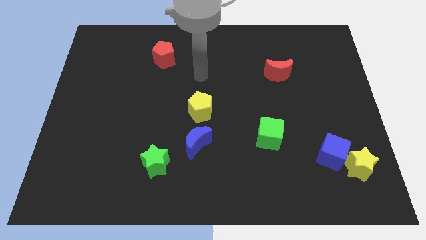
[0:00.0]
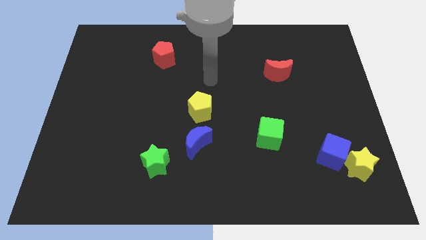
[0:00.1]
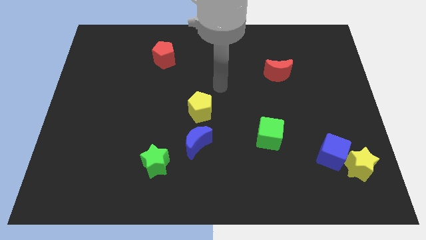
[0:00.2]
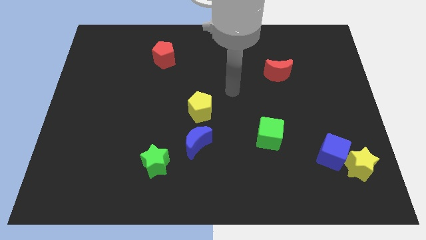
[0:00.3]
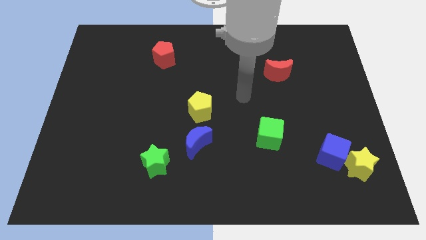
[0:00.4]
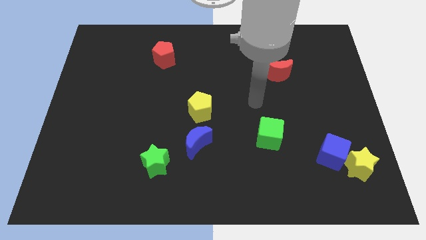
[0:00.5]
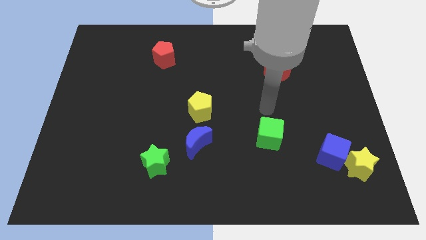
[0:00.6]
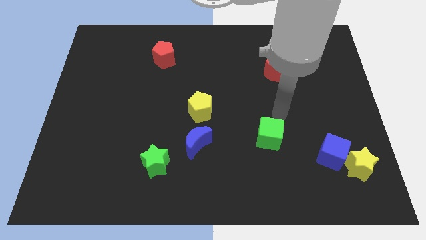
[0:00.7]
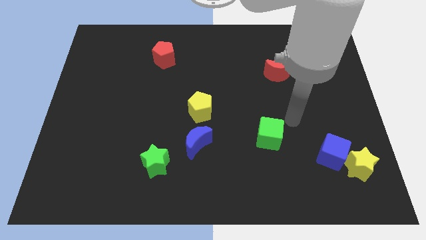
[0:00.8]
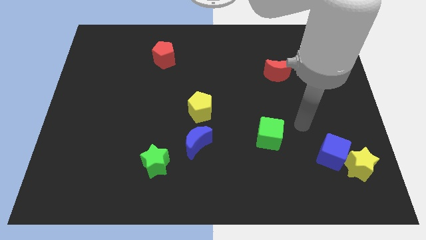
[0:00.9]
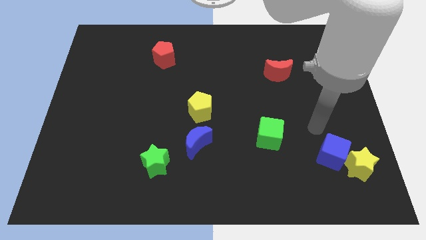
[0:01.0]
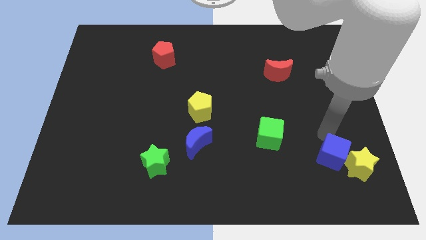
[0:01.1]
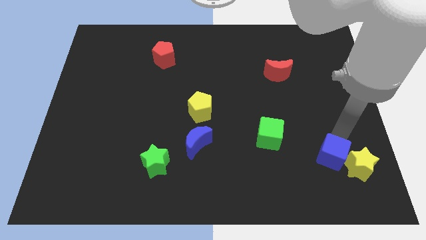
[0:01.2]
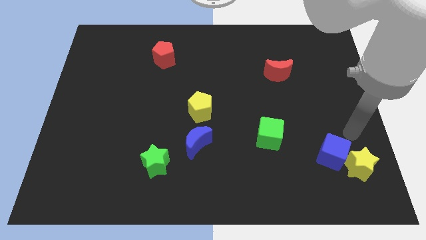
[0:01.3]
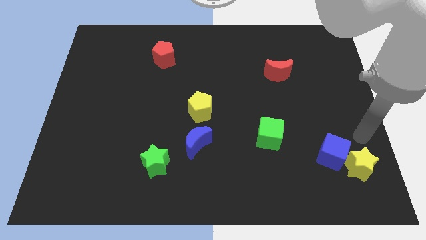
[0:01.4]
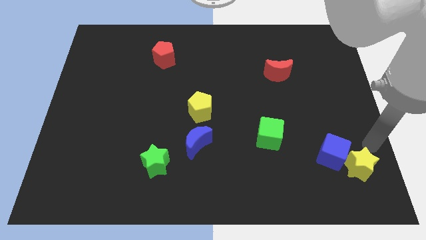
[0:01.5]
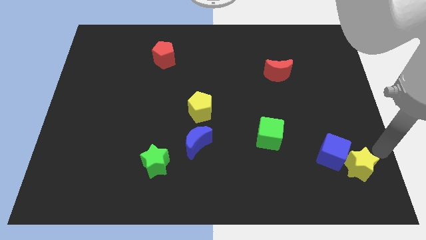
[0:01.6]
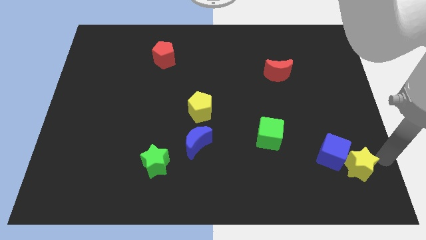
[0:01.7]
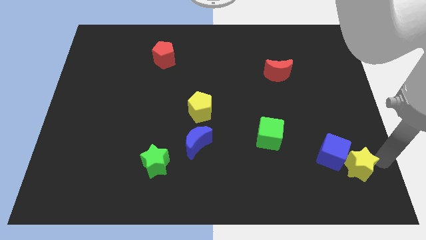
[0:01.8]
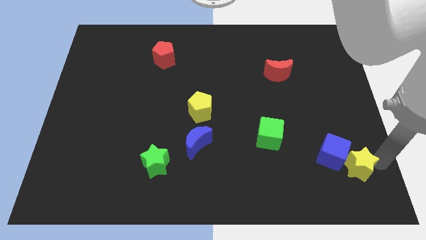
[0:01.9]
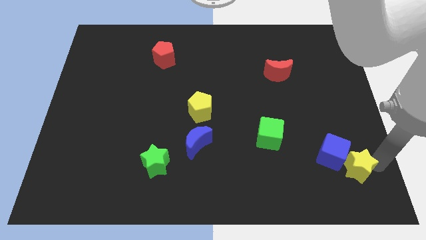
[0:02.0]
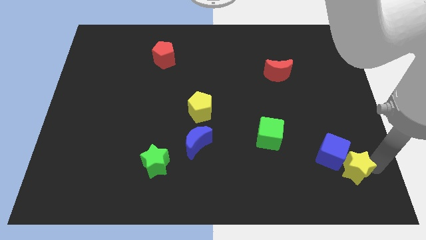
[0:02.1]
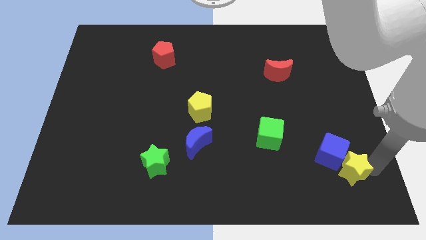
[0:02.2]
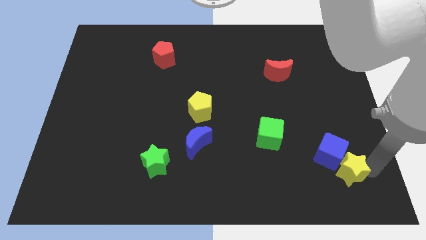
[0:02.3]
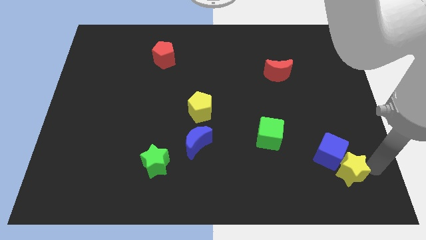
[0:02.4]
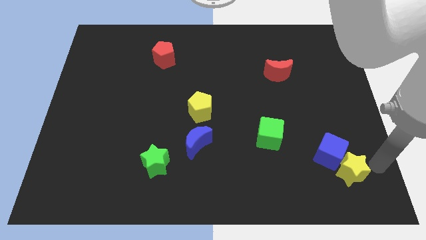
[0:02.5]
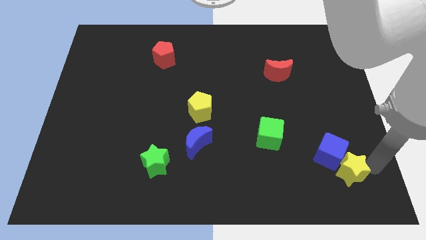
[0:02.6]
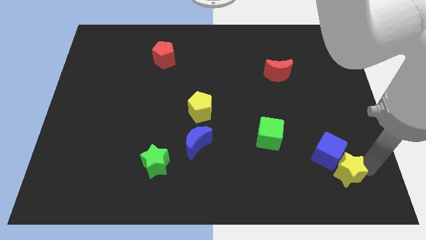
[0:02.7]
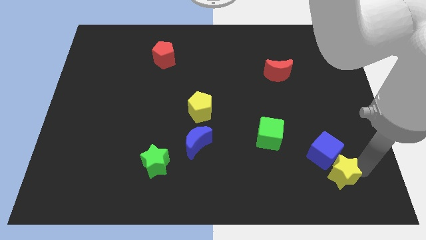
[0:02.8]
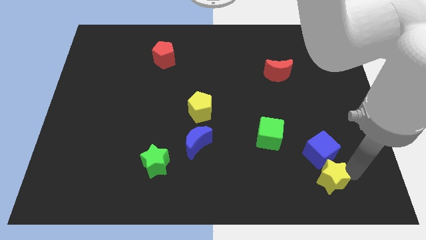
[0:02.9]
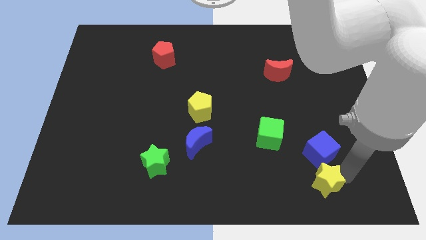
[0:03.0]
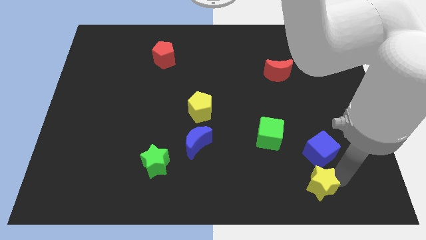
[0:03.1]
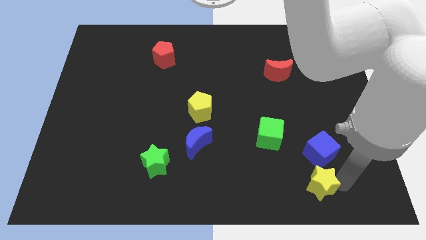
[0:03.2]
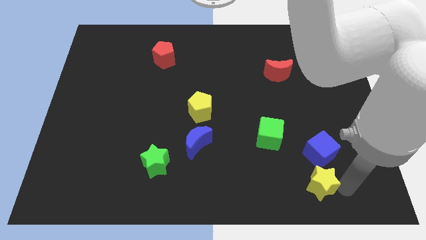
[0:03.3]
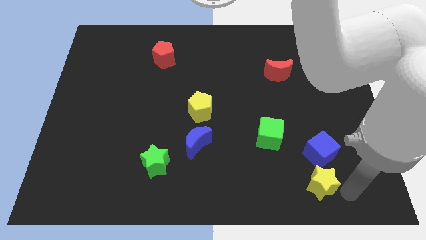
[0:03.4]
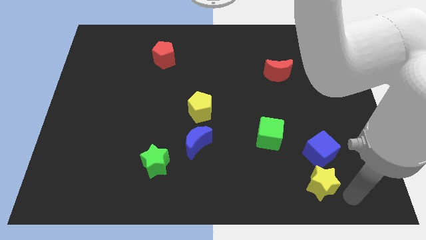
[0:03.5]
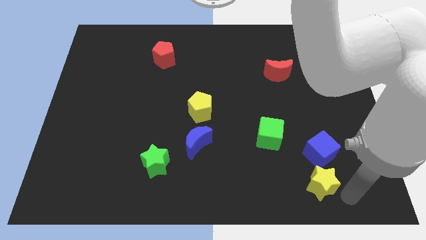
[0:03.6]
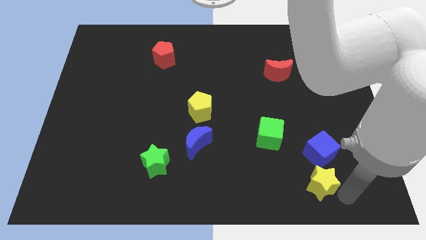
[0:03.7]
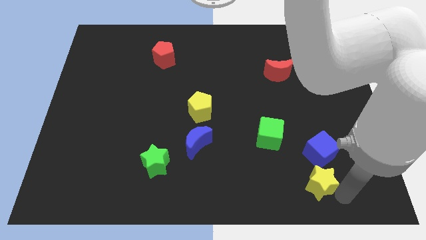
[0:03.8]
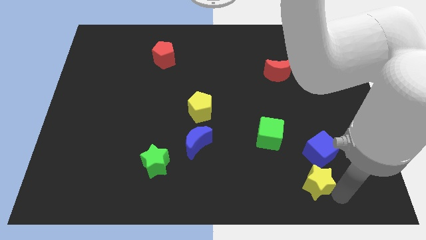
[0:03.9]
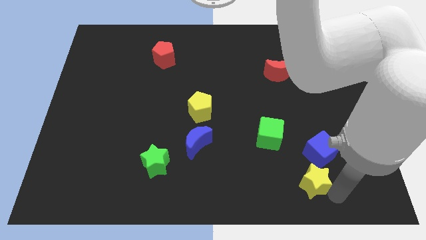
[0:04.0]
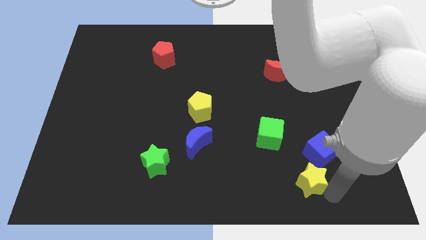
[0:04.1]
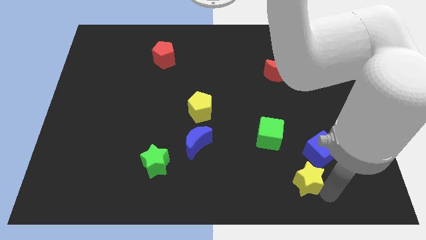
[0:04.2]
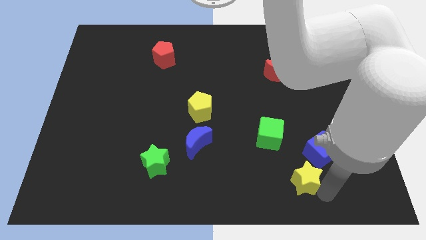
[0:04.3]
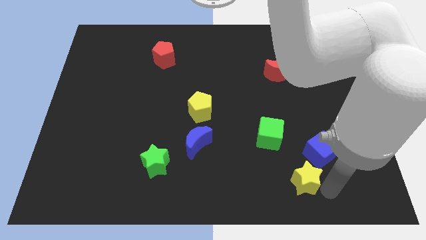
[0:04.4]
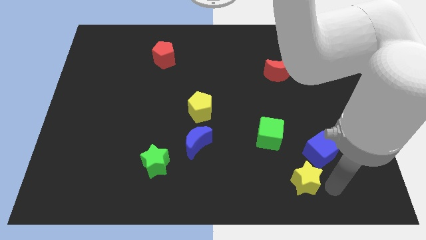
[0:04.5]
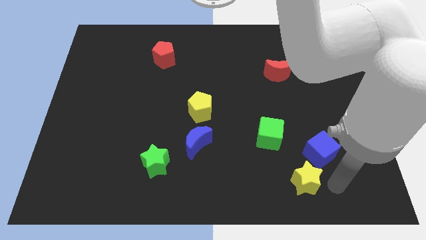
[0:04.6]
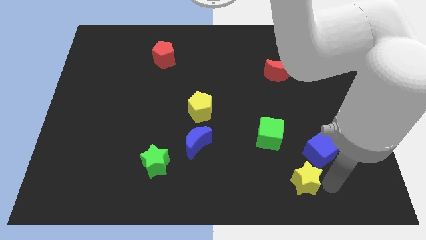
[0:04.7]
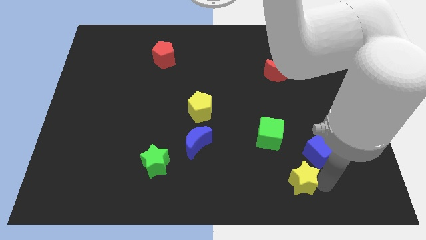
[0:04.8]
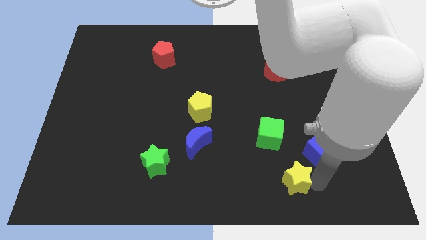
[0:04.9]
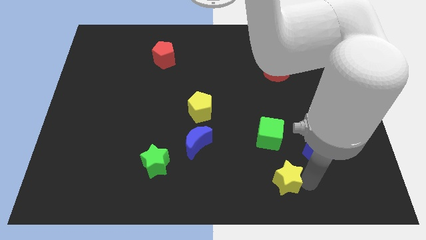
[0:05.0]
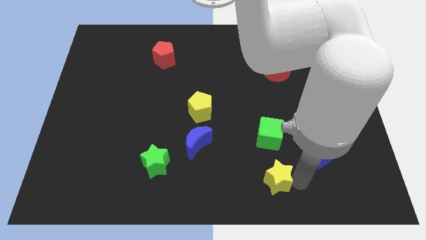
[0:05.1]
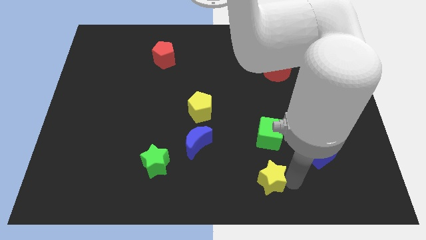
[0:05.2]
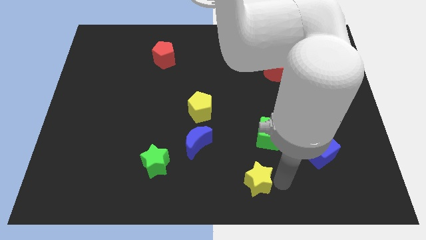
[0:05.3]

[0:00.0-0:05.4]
move the yellow star left

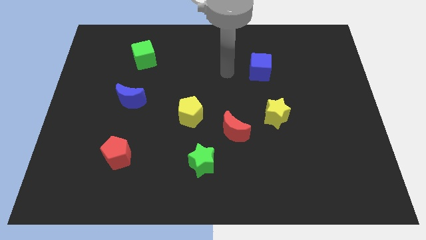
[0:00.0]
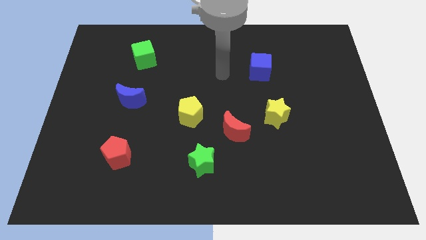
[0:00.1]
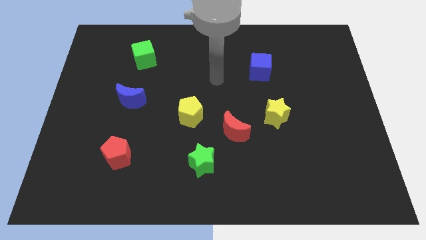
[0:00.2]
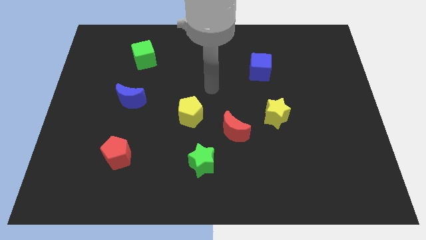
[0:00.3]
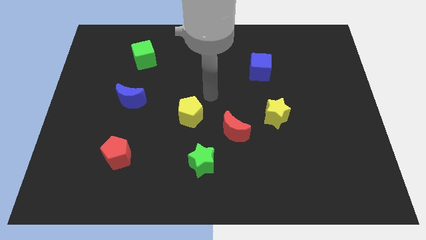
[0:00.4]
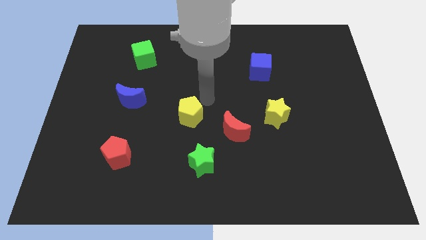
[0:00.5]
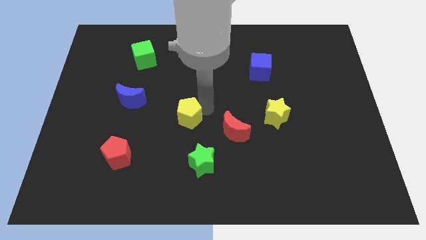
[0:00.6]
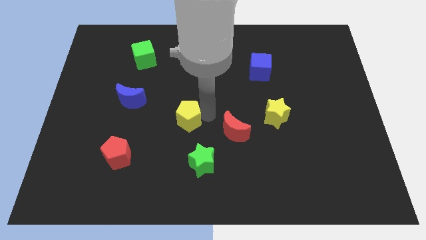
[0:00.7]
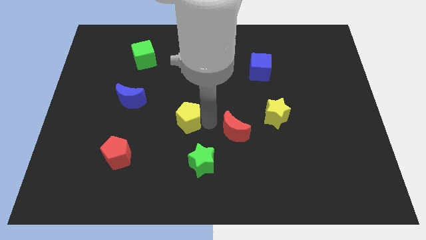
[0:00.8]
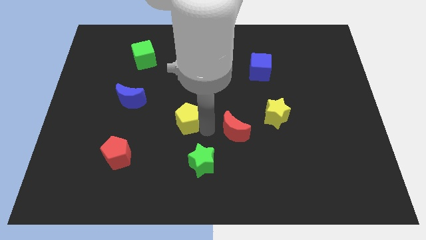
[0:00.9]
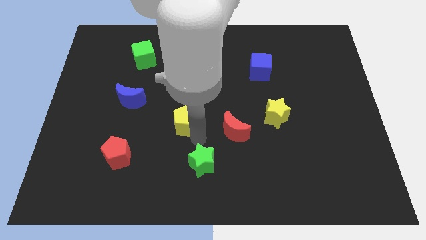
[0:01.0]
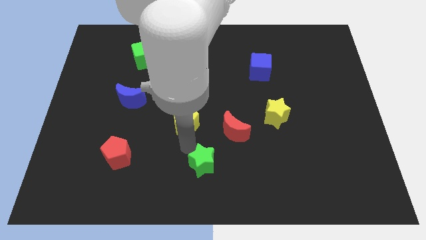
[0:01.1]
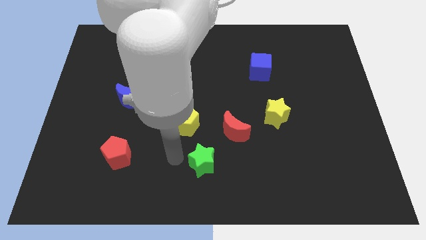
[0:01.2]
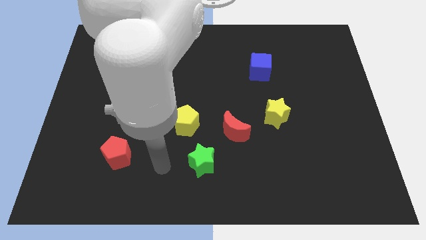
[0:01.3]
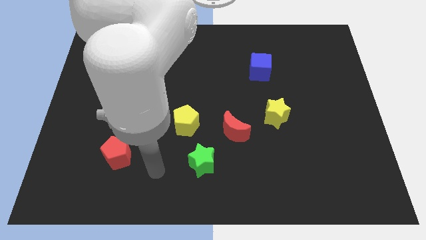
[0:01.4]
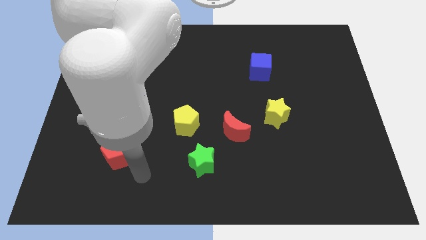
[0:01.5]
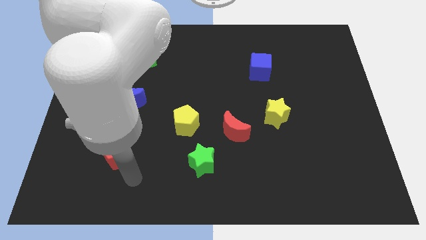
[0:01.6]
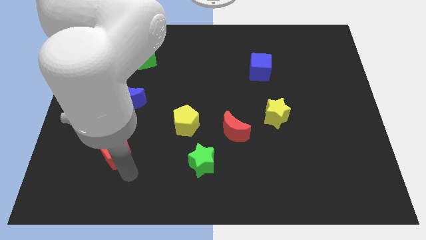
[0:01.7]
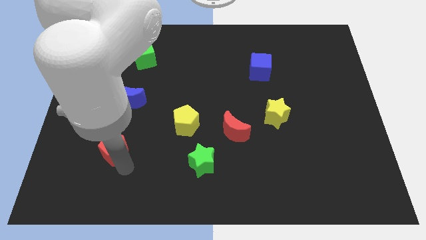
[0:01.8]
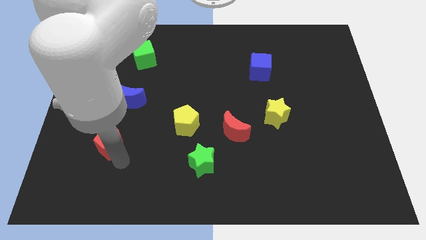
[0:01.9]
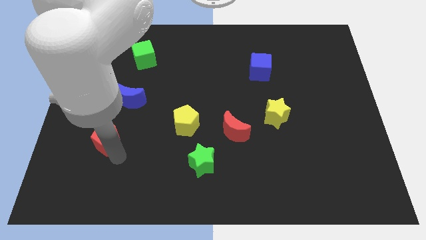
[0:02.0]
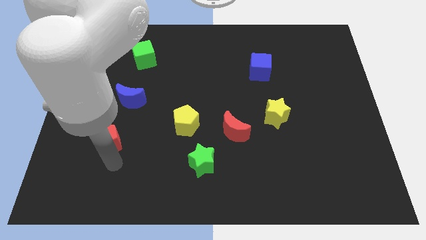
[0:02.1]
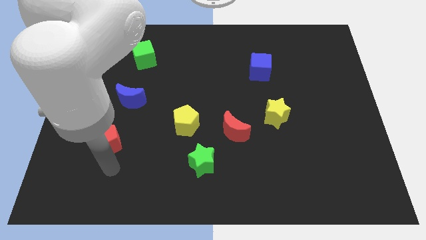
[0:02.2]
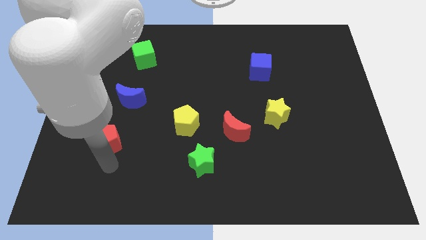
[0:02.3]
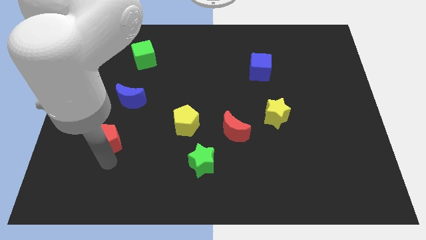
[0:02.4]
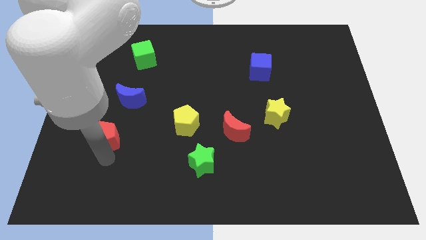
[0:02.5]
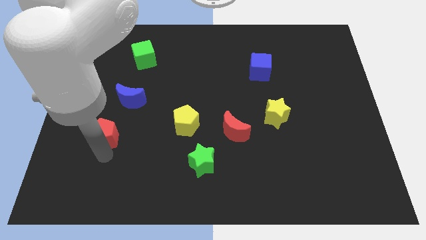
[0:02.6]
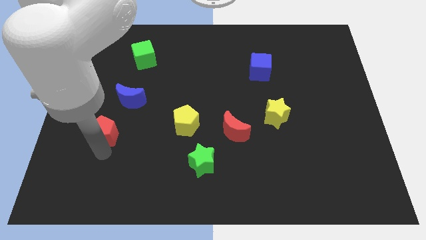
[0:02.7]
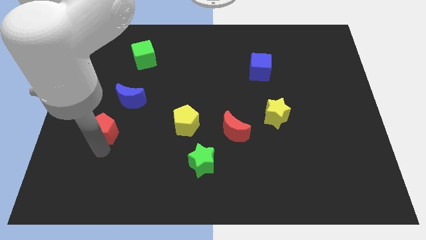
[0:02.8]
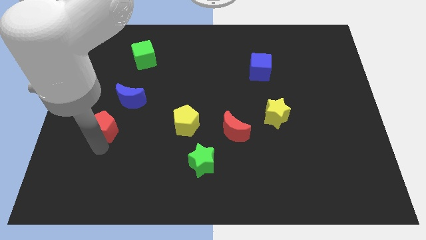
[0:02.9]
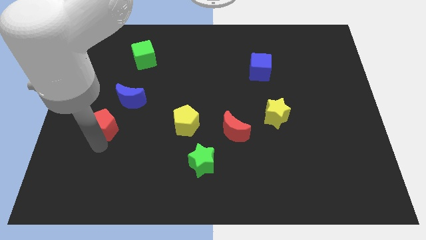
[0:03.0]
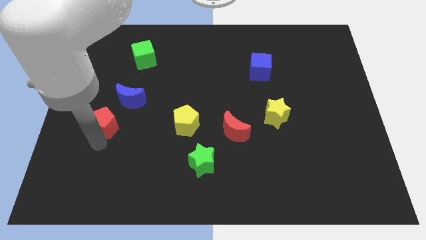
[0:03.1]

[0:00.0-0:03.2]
move the red pentagon upwards slightly
